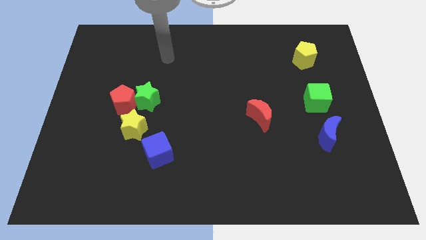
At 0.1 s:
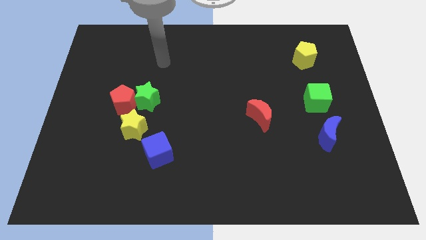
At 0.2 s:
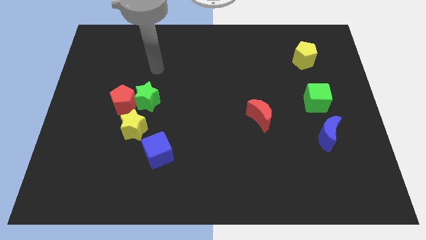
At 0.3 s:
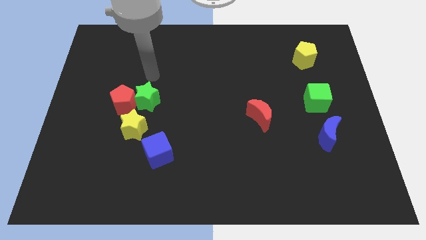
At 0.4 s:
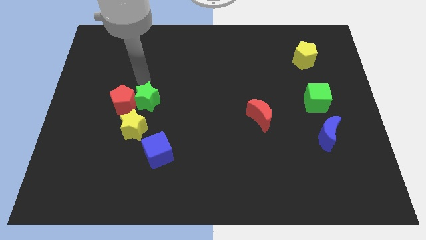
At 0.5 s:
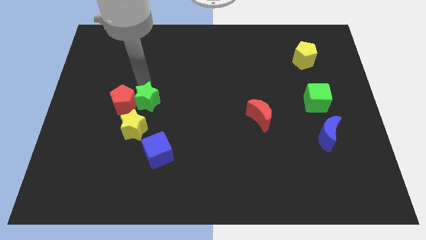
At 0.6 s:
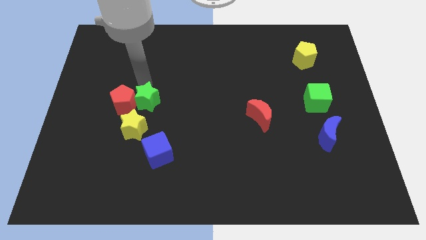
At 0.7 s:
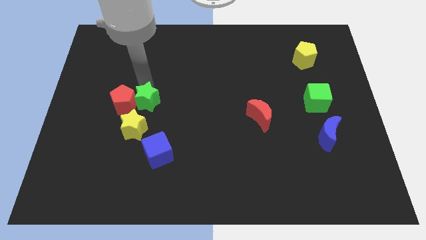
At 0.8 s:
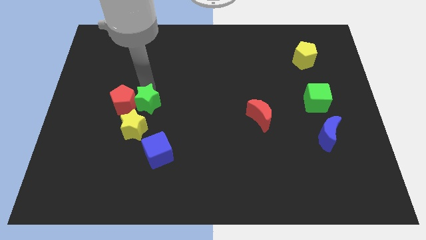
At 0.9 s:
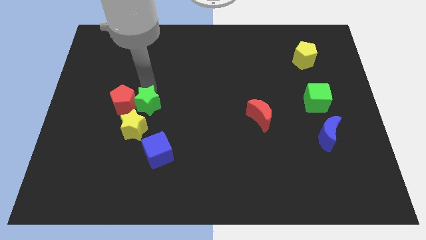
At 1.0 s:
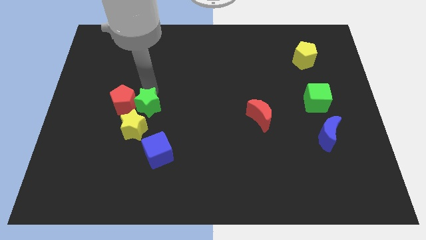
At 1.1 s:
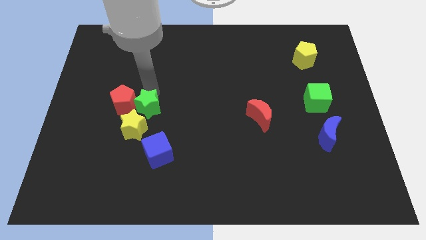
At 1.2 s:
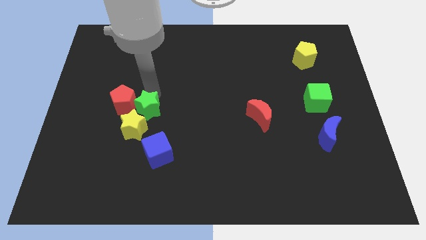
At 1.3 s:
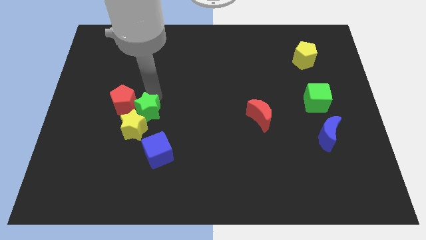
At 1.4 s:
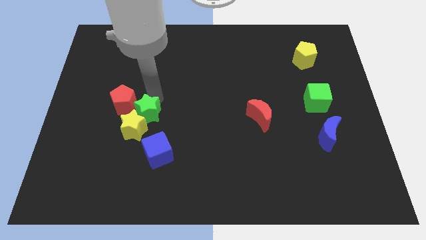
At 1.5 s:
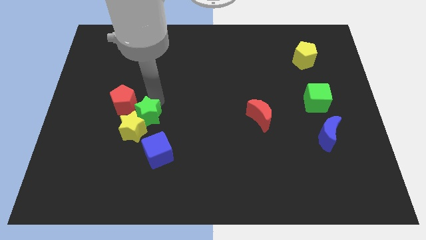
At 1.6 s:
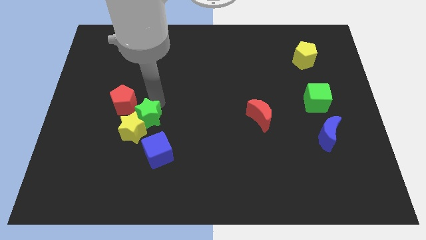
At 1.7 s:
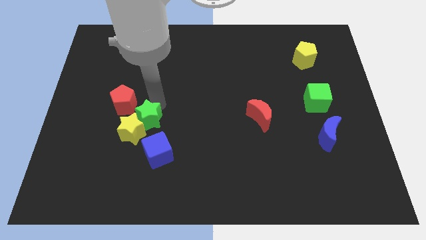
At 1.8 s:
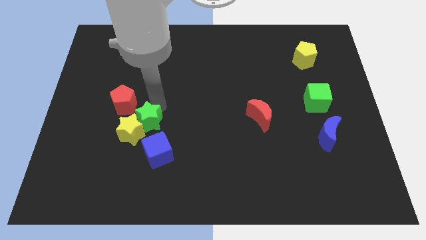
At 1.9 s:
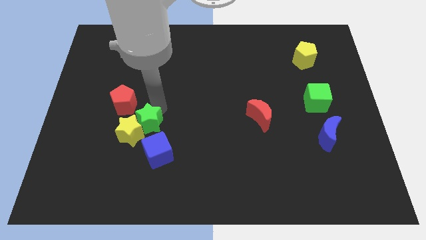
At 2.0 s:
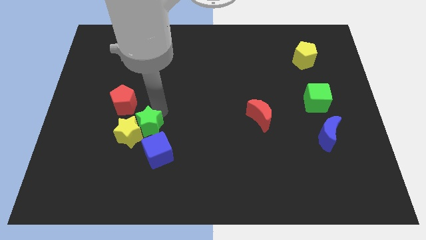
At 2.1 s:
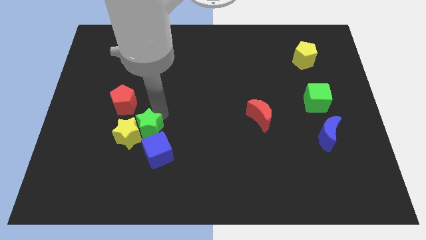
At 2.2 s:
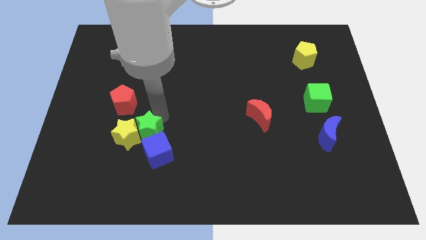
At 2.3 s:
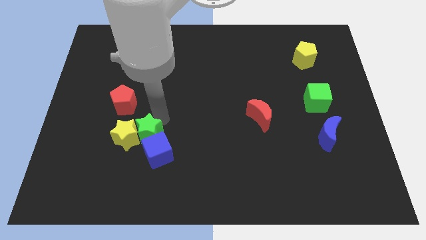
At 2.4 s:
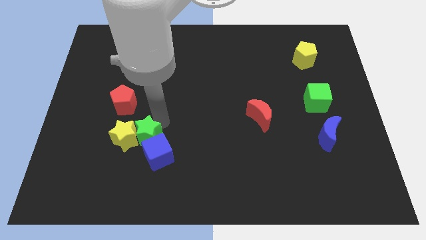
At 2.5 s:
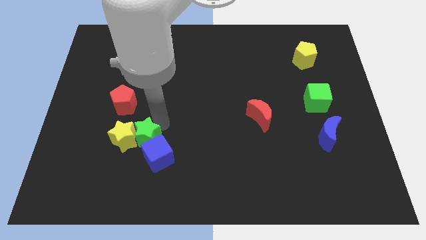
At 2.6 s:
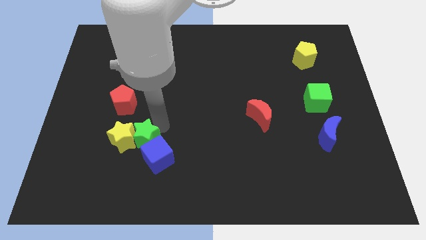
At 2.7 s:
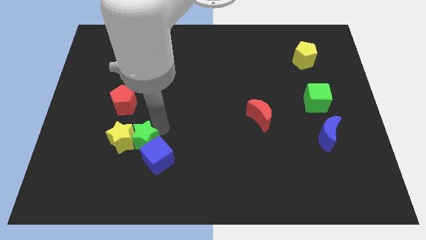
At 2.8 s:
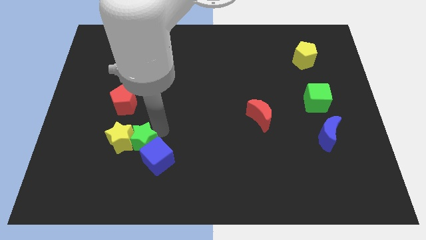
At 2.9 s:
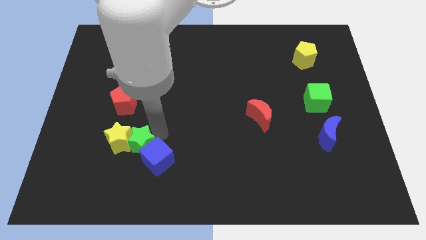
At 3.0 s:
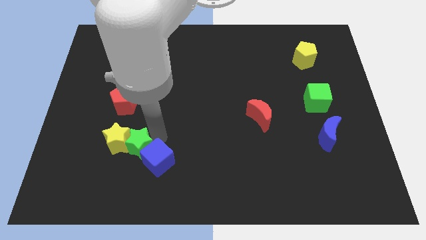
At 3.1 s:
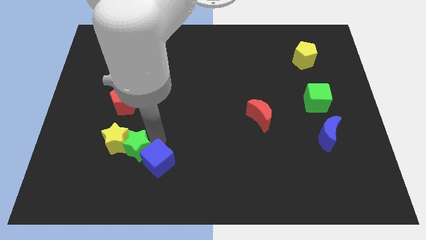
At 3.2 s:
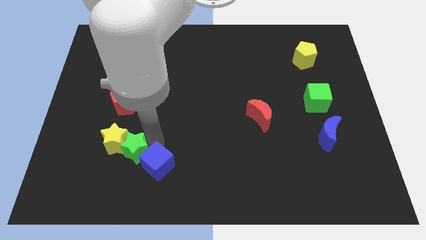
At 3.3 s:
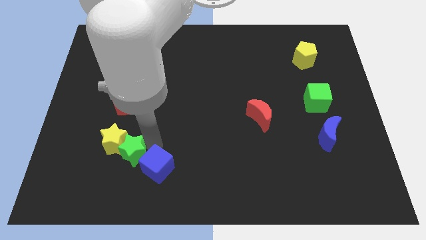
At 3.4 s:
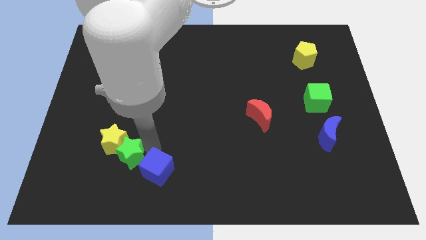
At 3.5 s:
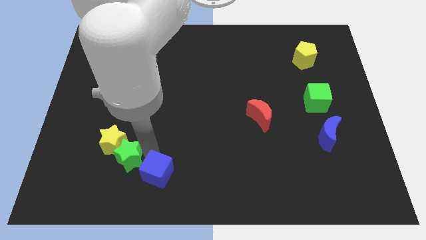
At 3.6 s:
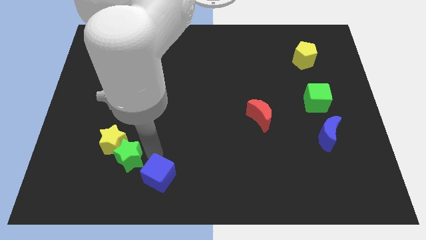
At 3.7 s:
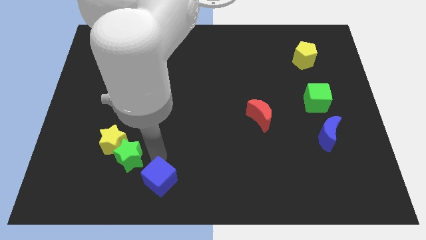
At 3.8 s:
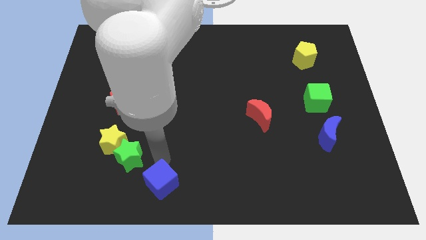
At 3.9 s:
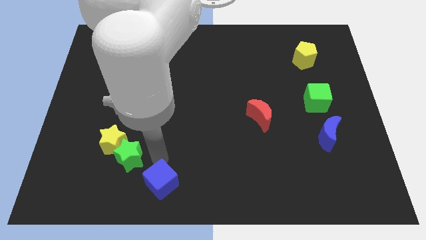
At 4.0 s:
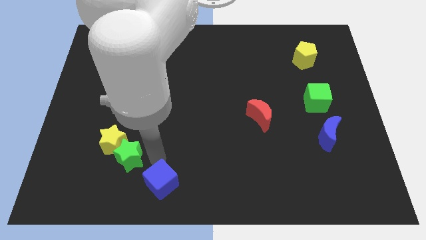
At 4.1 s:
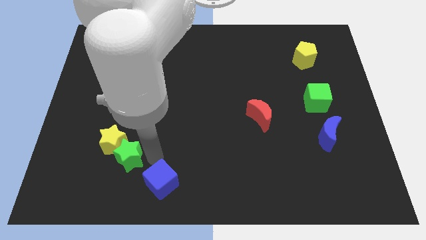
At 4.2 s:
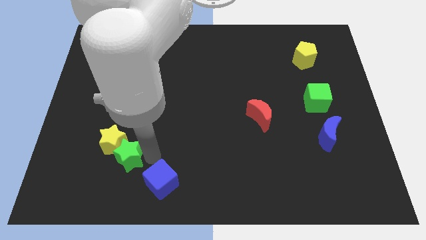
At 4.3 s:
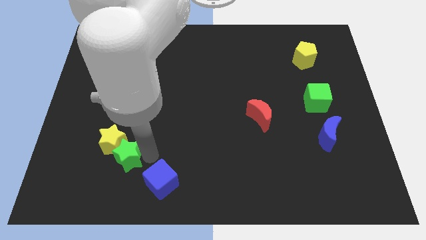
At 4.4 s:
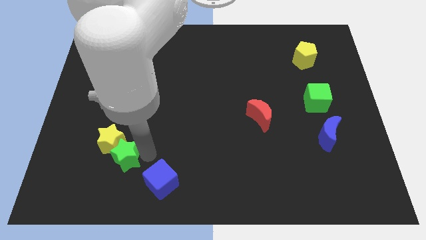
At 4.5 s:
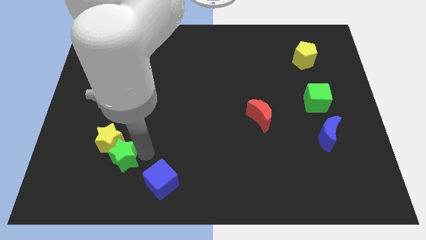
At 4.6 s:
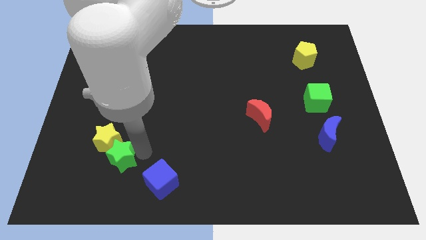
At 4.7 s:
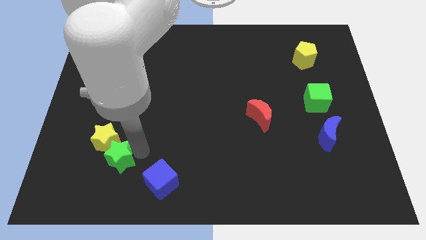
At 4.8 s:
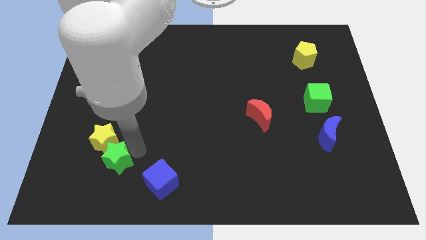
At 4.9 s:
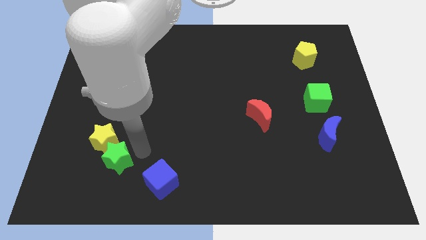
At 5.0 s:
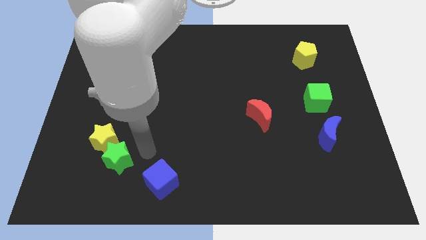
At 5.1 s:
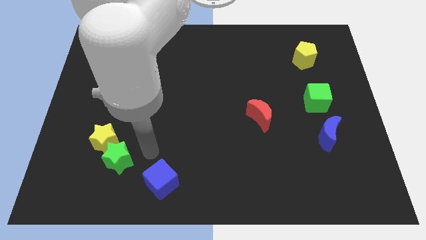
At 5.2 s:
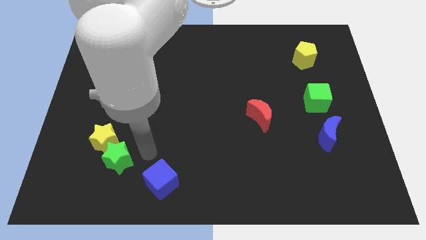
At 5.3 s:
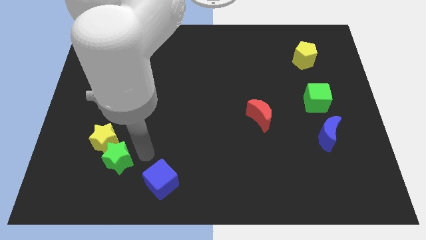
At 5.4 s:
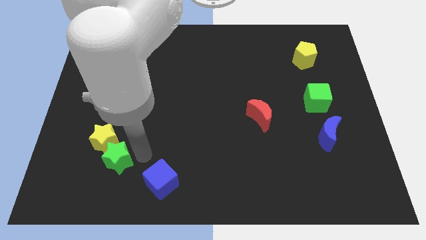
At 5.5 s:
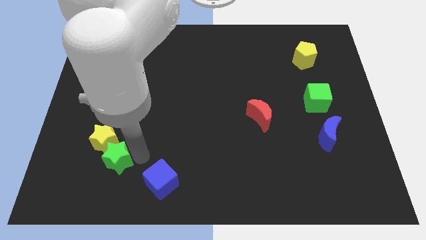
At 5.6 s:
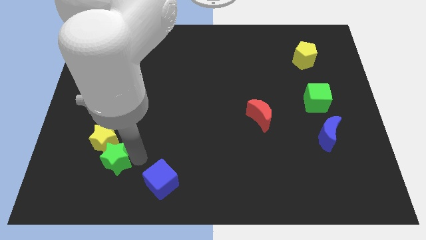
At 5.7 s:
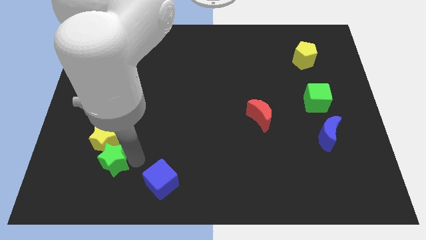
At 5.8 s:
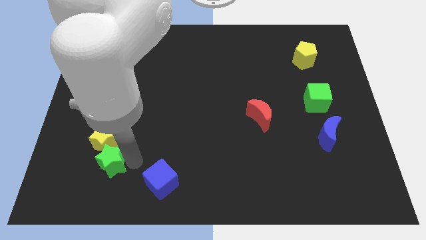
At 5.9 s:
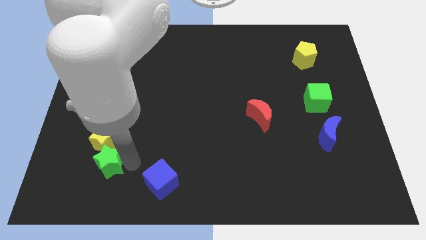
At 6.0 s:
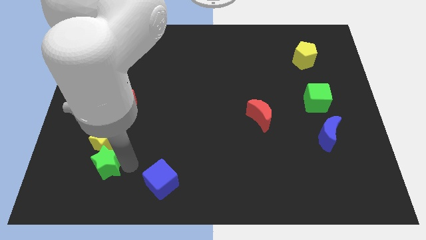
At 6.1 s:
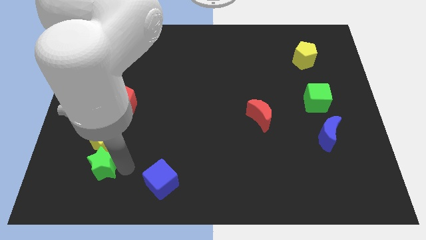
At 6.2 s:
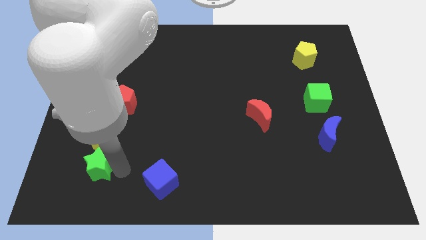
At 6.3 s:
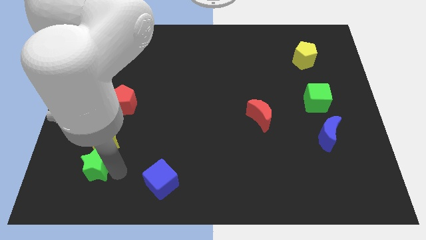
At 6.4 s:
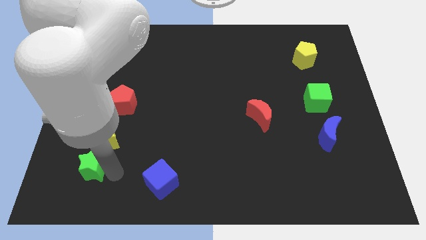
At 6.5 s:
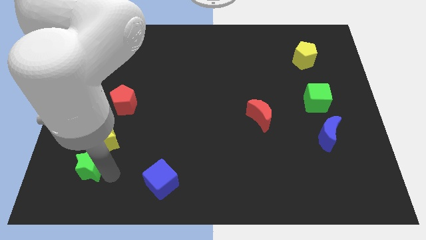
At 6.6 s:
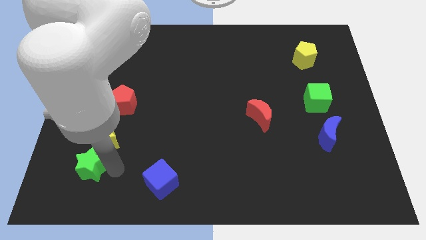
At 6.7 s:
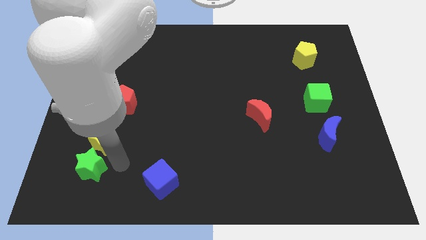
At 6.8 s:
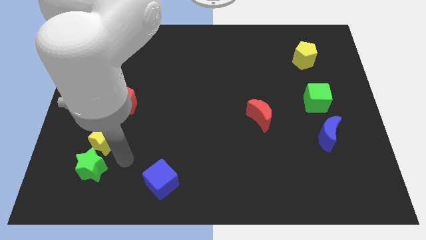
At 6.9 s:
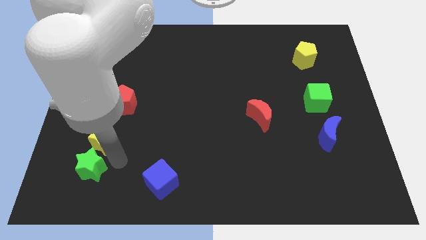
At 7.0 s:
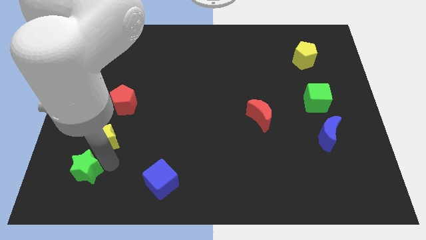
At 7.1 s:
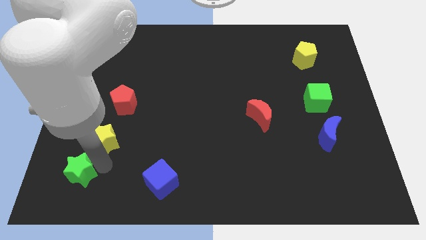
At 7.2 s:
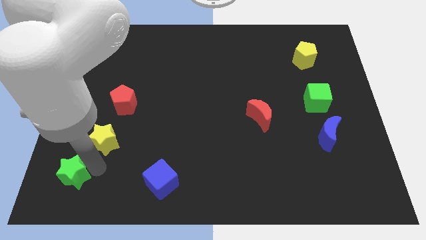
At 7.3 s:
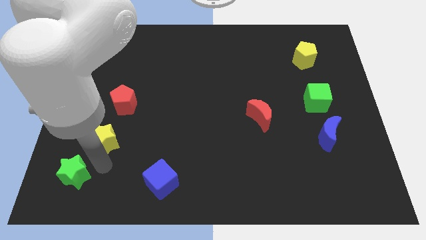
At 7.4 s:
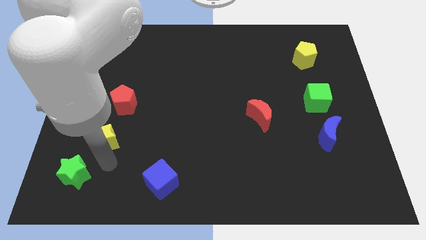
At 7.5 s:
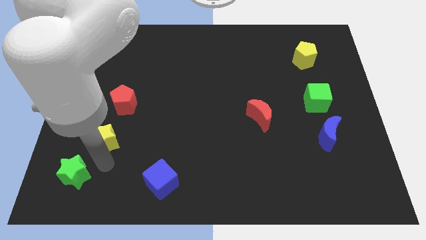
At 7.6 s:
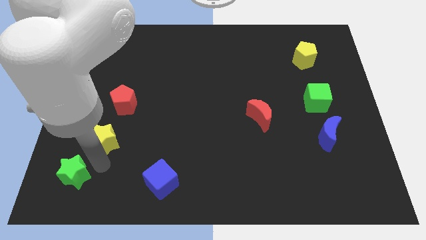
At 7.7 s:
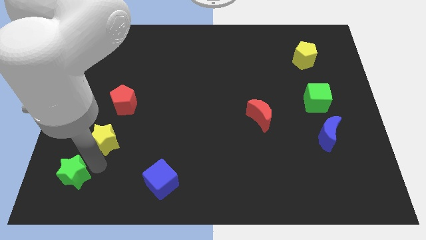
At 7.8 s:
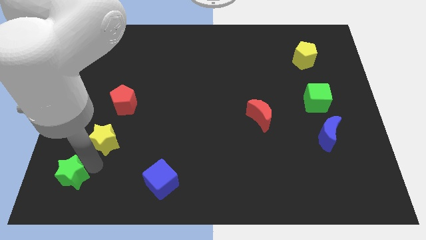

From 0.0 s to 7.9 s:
put the green star to the lower left corner
